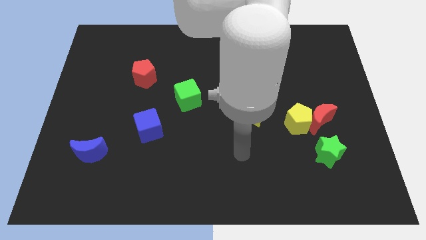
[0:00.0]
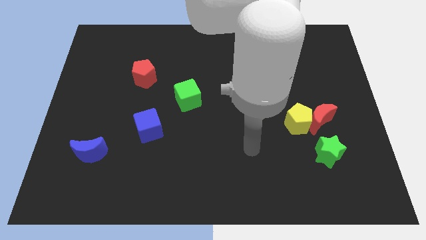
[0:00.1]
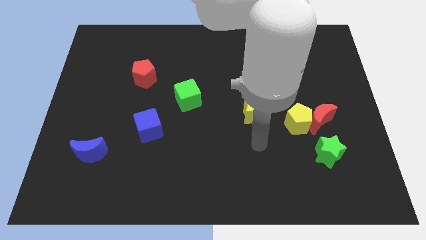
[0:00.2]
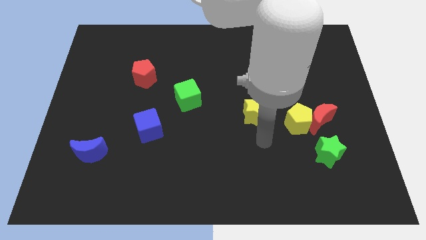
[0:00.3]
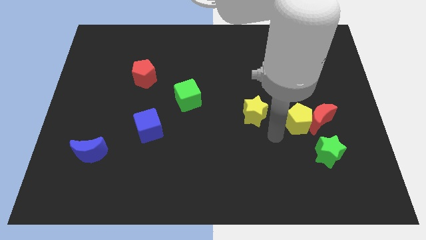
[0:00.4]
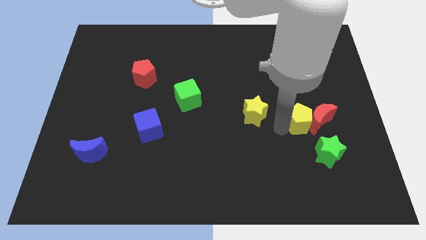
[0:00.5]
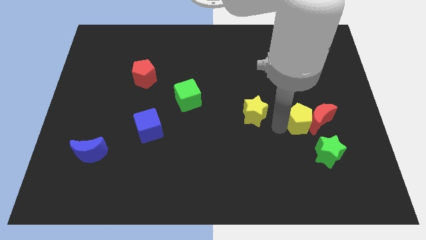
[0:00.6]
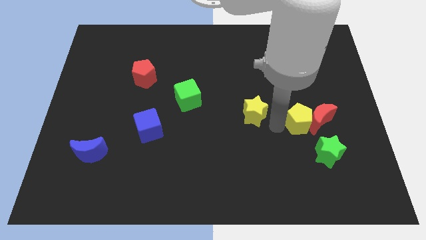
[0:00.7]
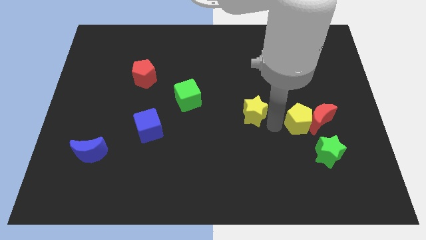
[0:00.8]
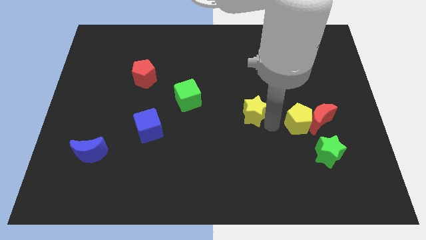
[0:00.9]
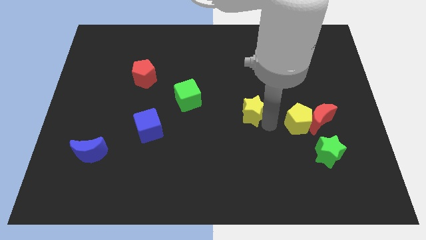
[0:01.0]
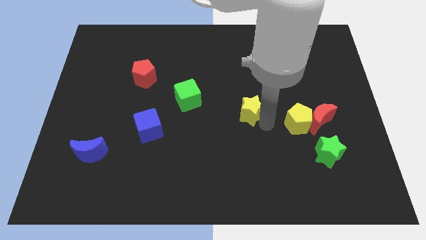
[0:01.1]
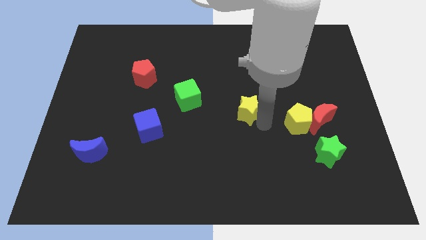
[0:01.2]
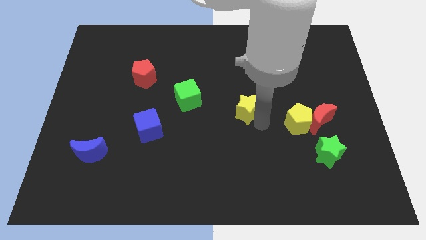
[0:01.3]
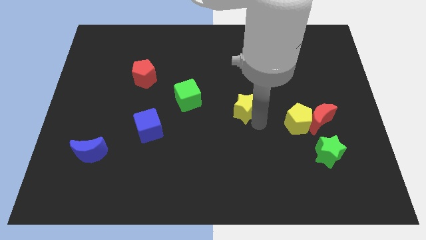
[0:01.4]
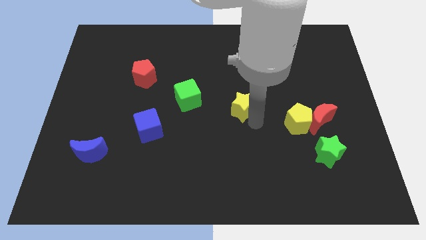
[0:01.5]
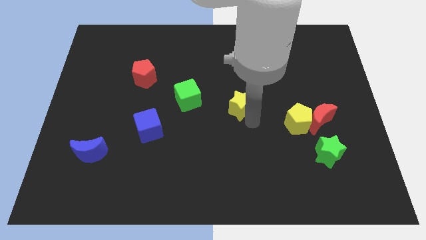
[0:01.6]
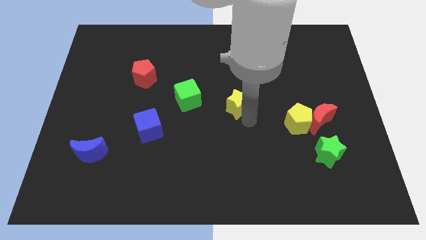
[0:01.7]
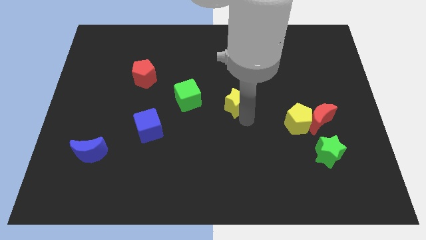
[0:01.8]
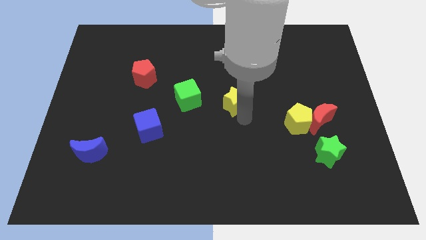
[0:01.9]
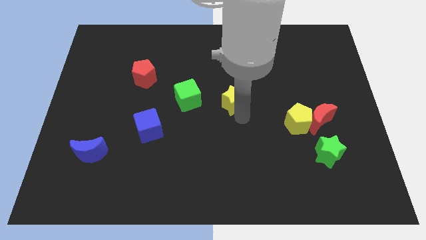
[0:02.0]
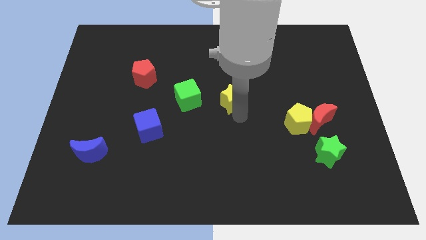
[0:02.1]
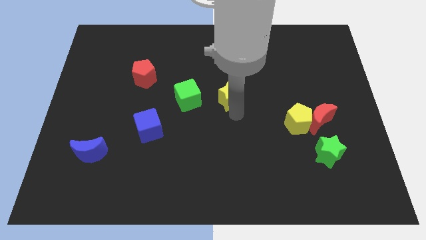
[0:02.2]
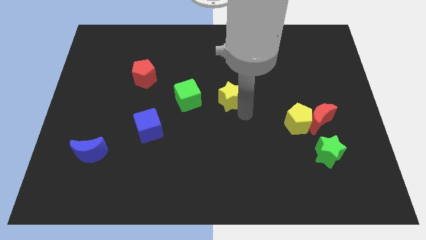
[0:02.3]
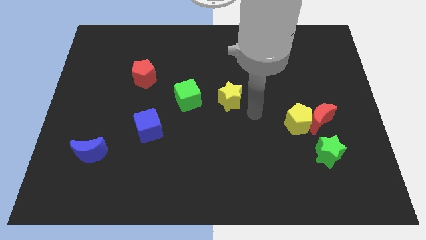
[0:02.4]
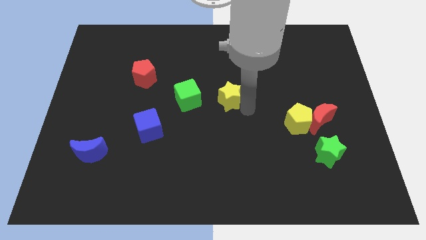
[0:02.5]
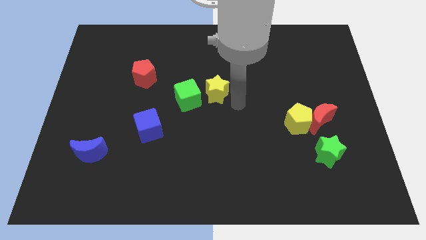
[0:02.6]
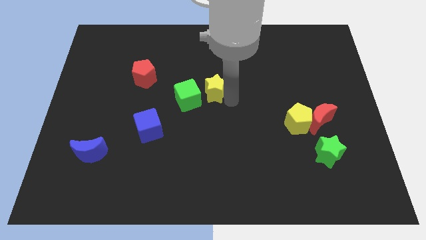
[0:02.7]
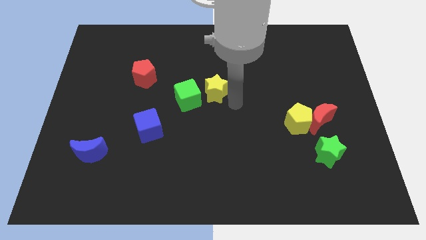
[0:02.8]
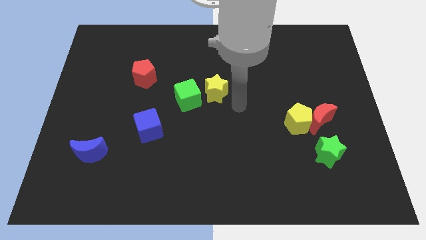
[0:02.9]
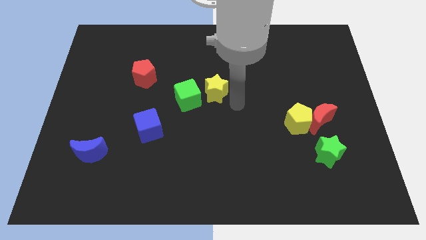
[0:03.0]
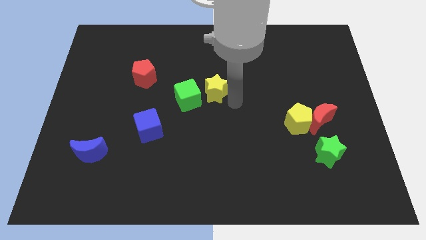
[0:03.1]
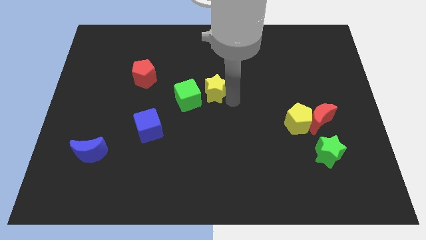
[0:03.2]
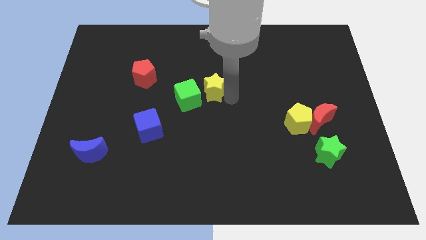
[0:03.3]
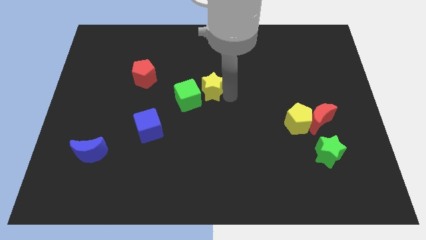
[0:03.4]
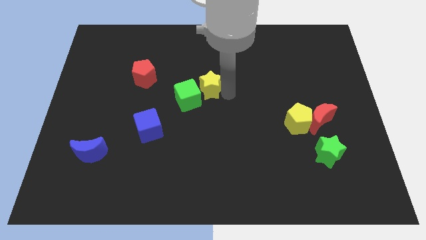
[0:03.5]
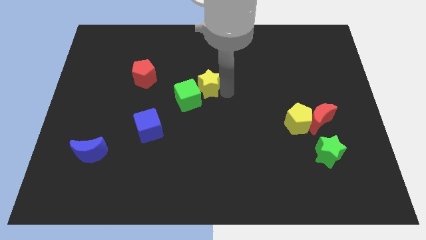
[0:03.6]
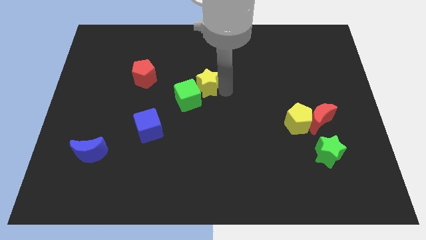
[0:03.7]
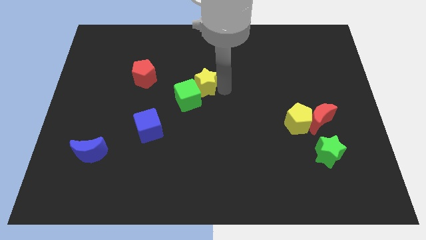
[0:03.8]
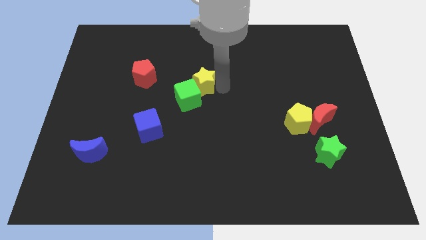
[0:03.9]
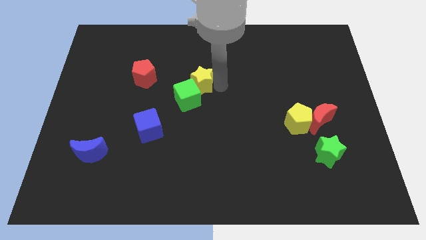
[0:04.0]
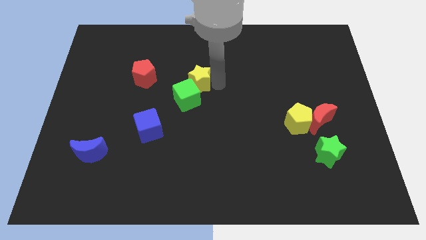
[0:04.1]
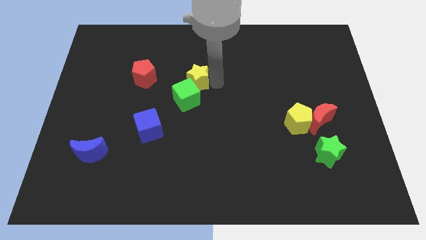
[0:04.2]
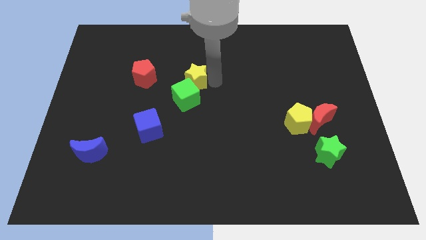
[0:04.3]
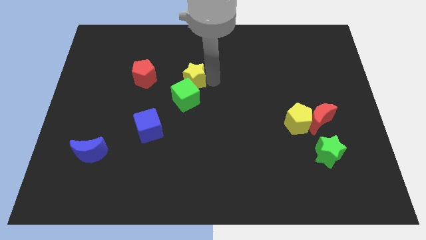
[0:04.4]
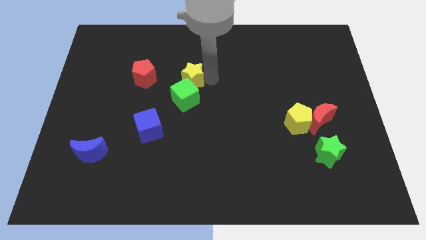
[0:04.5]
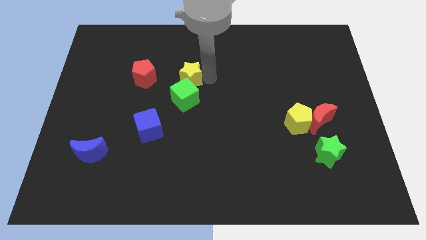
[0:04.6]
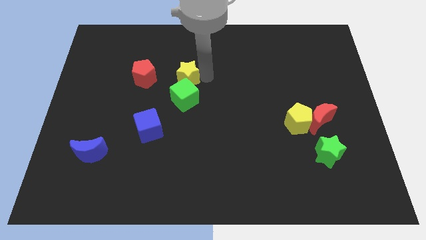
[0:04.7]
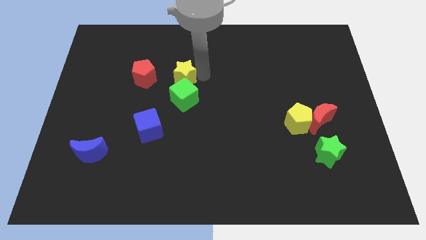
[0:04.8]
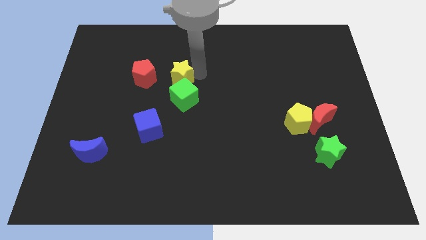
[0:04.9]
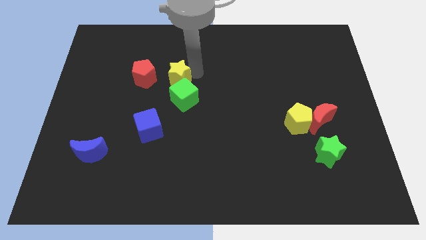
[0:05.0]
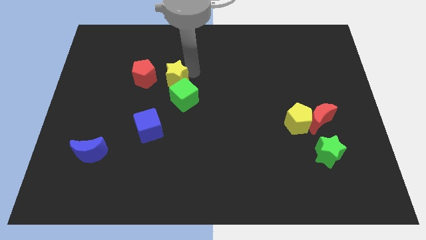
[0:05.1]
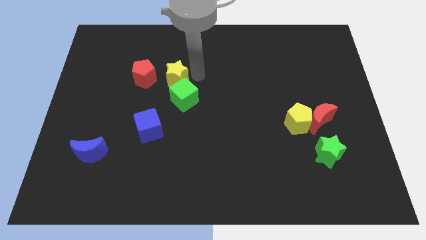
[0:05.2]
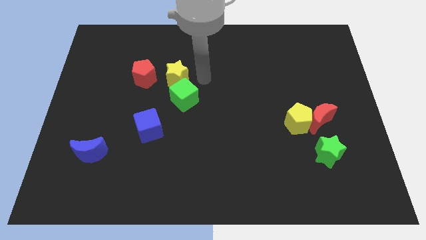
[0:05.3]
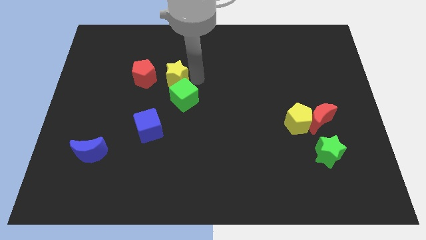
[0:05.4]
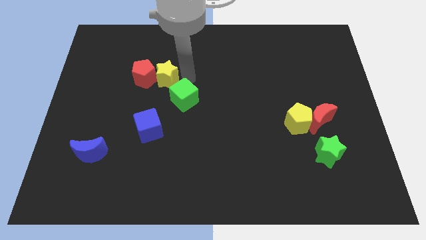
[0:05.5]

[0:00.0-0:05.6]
slide the yellow star close to the red pentagon

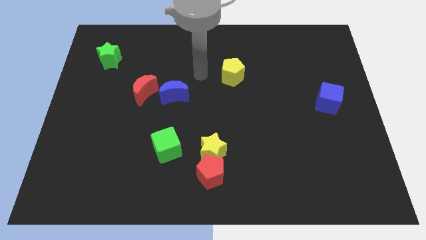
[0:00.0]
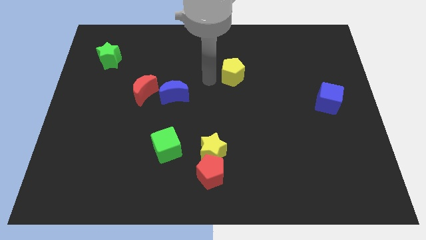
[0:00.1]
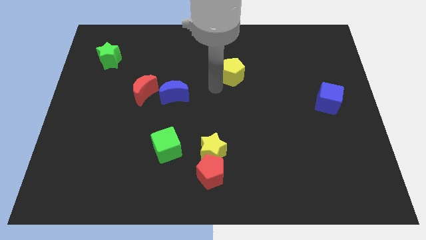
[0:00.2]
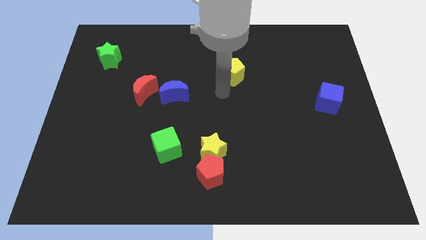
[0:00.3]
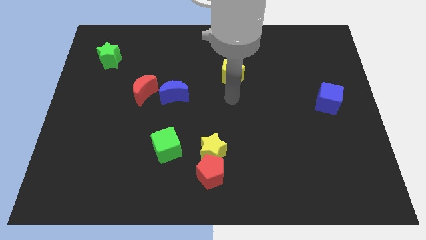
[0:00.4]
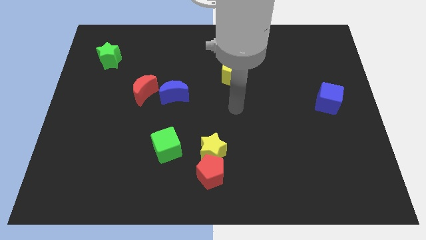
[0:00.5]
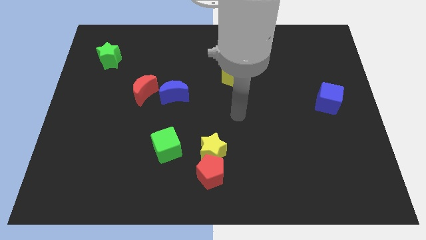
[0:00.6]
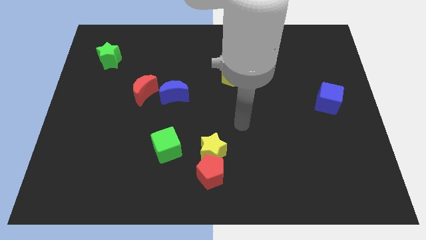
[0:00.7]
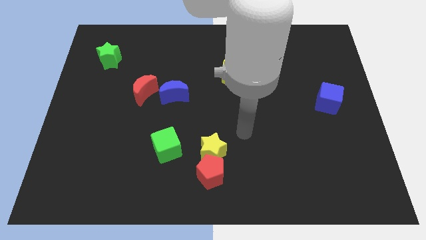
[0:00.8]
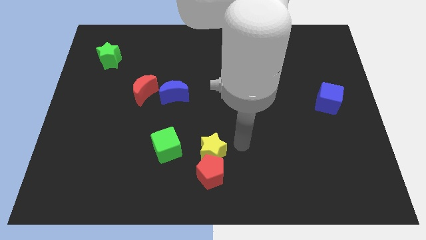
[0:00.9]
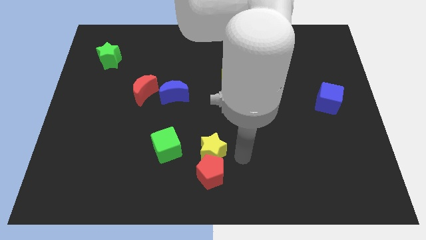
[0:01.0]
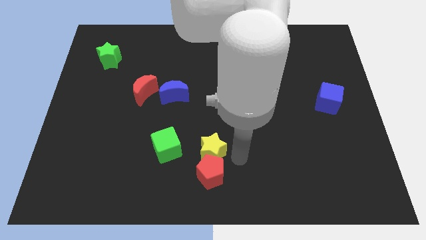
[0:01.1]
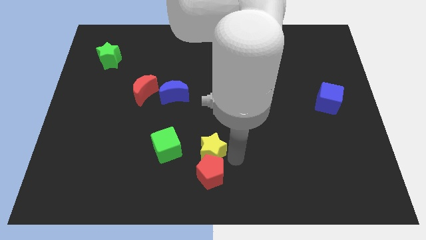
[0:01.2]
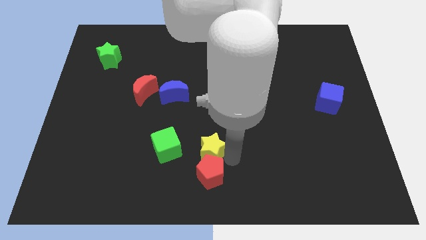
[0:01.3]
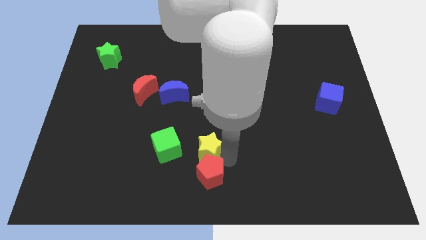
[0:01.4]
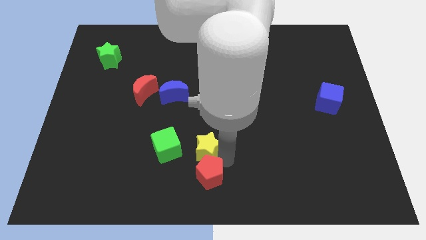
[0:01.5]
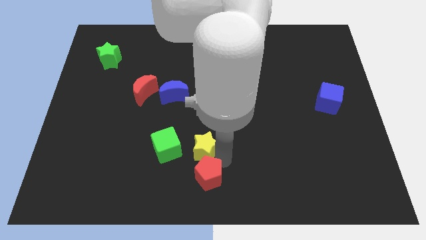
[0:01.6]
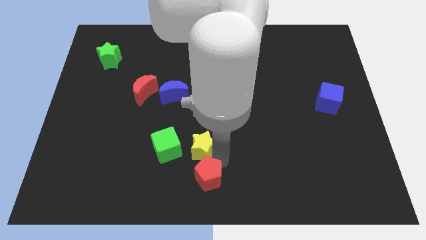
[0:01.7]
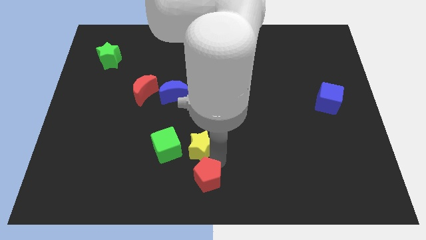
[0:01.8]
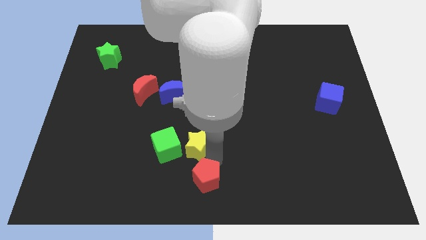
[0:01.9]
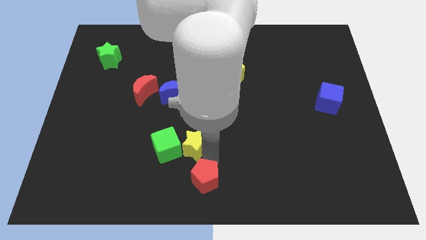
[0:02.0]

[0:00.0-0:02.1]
move the yellow star towards the green cube
